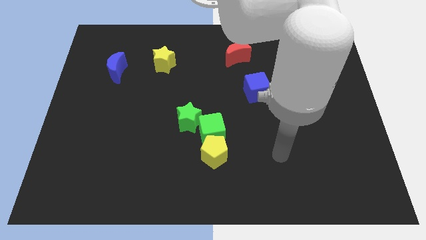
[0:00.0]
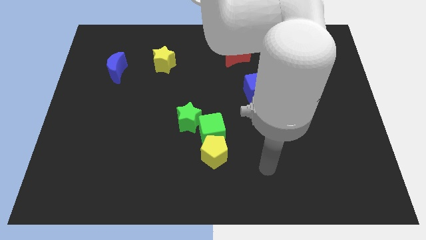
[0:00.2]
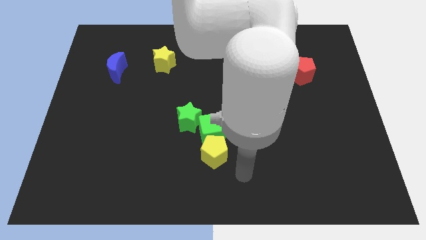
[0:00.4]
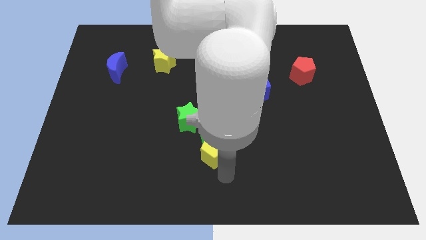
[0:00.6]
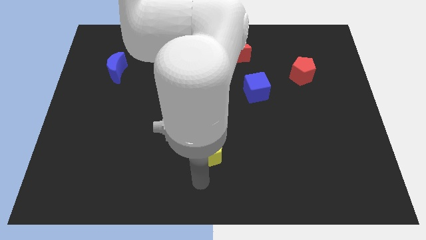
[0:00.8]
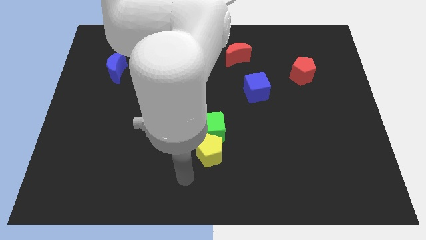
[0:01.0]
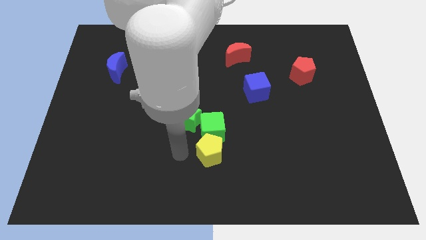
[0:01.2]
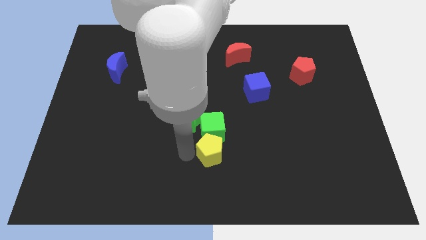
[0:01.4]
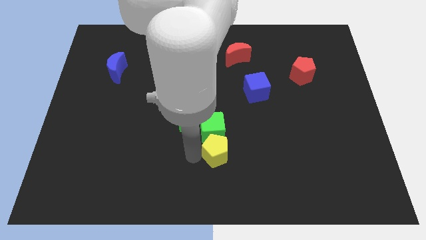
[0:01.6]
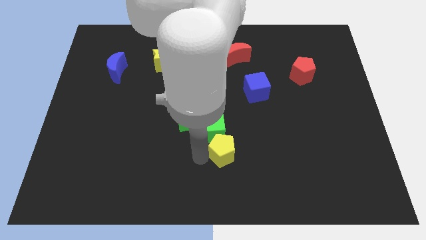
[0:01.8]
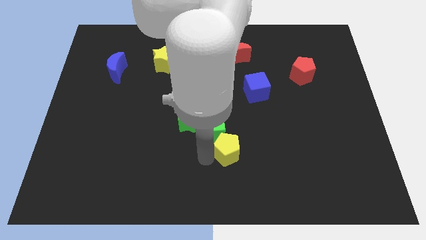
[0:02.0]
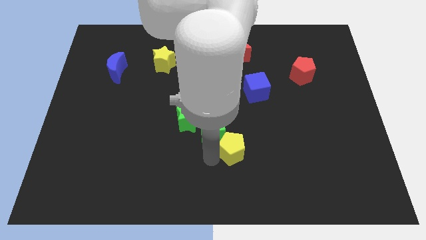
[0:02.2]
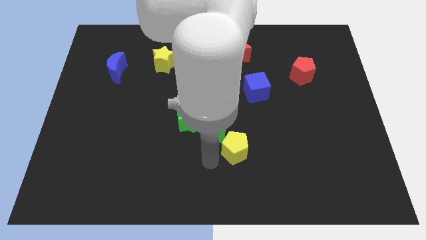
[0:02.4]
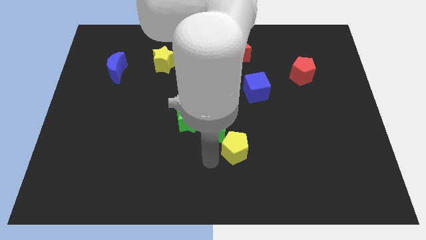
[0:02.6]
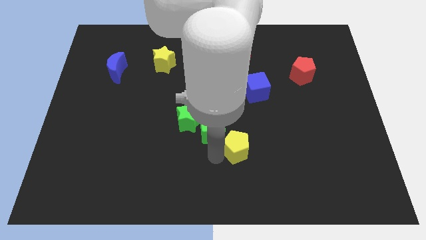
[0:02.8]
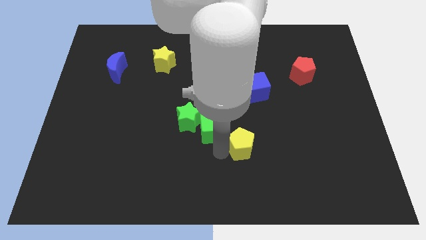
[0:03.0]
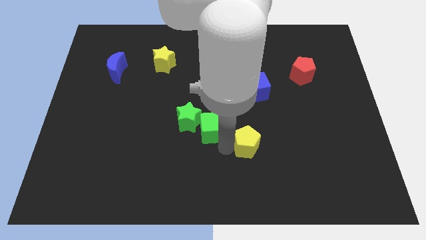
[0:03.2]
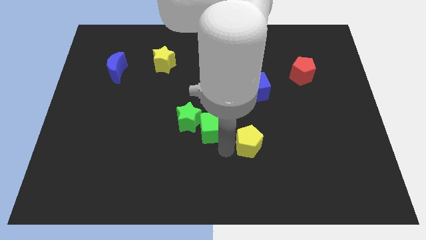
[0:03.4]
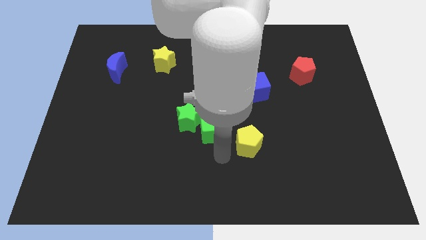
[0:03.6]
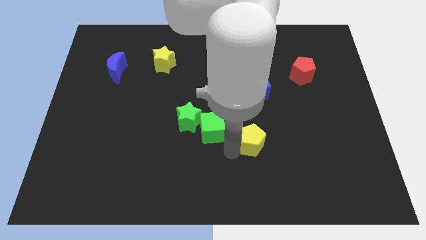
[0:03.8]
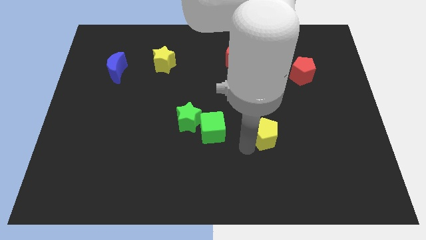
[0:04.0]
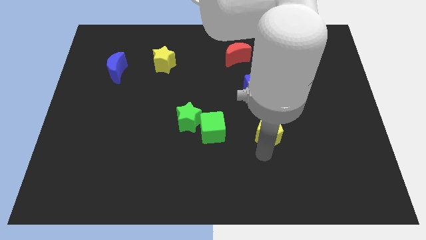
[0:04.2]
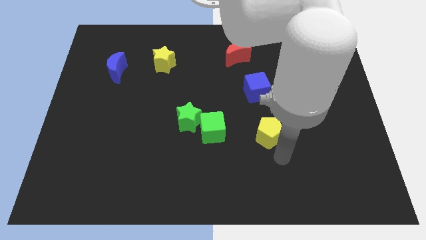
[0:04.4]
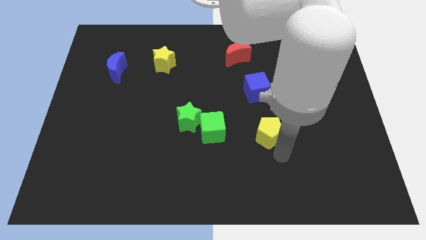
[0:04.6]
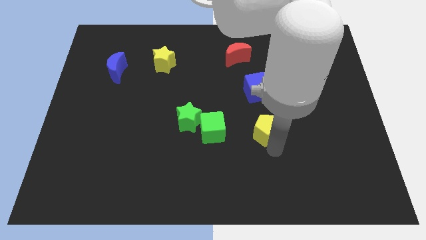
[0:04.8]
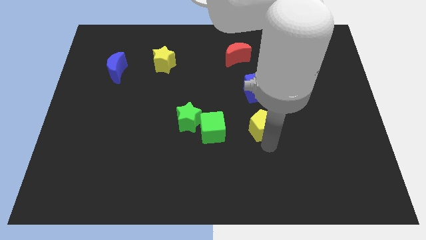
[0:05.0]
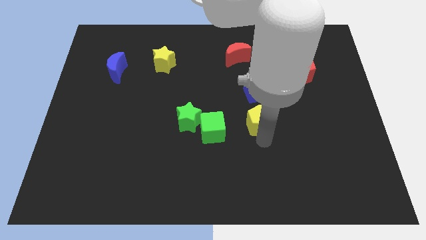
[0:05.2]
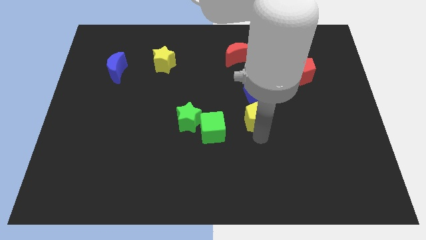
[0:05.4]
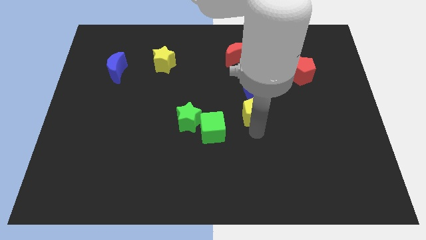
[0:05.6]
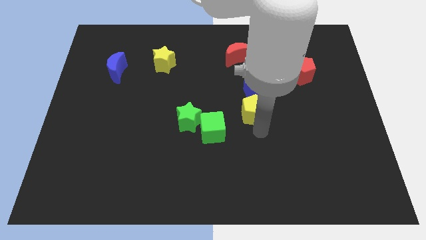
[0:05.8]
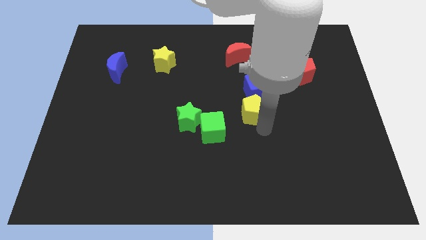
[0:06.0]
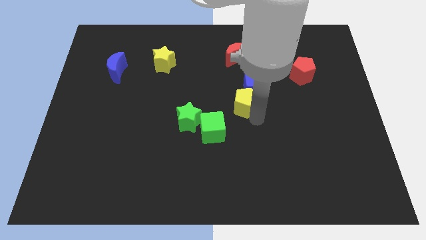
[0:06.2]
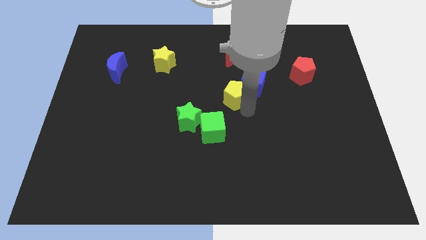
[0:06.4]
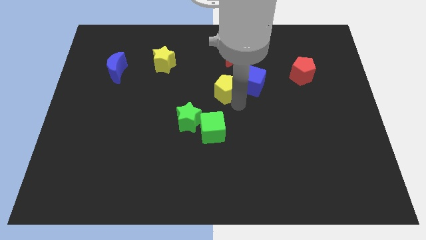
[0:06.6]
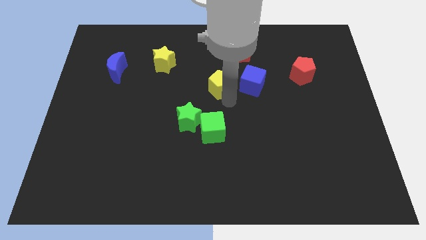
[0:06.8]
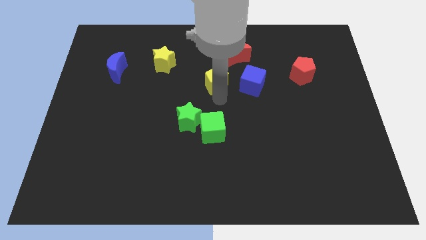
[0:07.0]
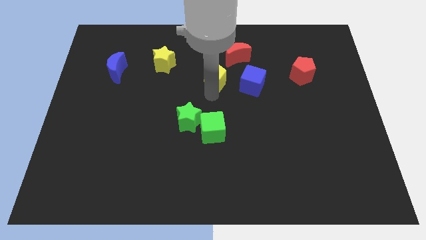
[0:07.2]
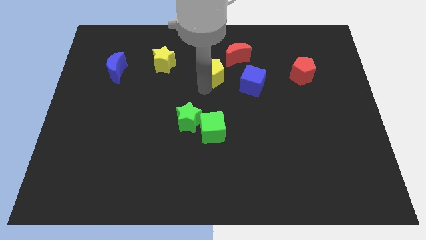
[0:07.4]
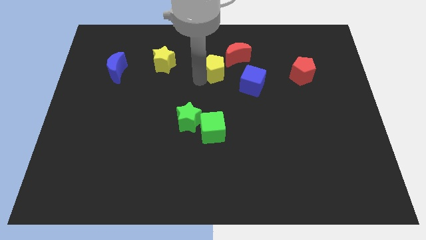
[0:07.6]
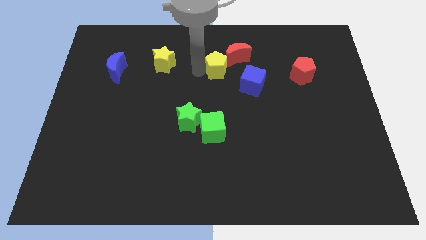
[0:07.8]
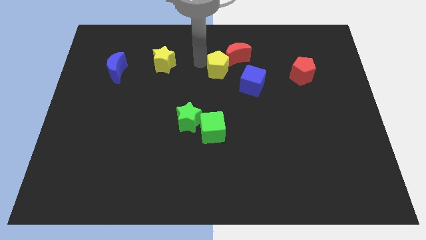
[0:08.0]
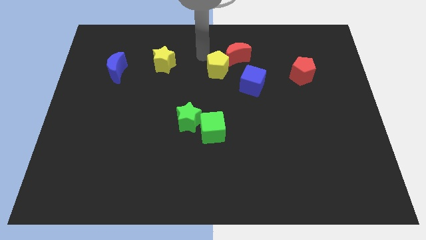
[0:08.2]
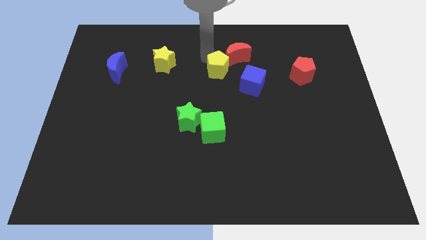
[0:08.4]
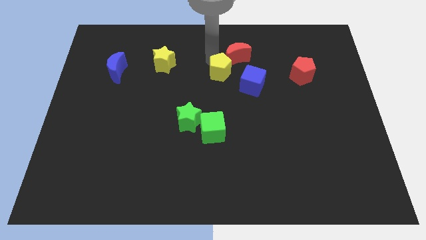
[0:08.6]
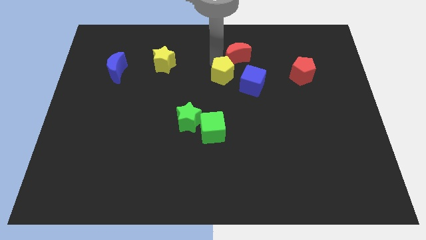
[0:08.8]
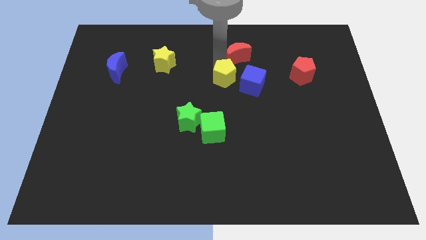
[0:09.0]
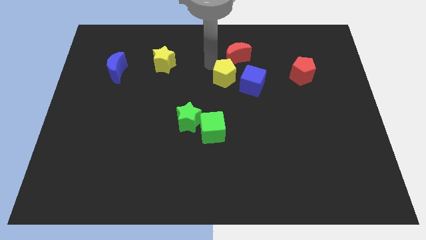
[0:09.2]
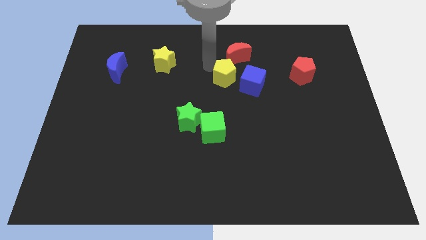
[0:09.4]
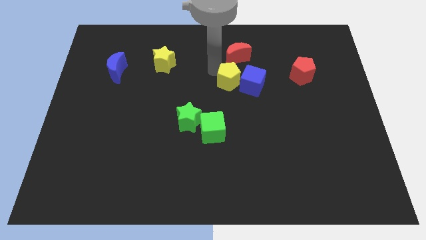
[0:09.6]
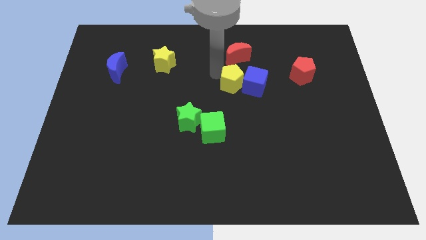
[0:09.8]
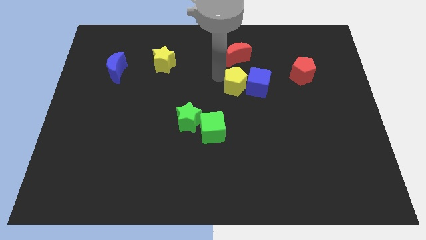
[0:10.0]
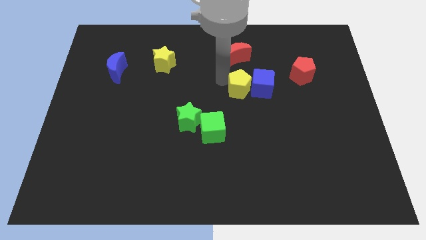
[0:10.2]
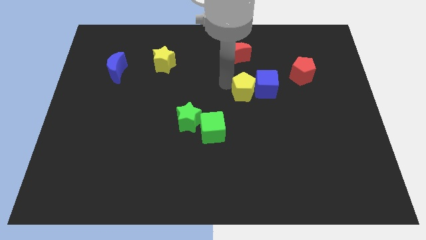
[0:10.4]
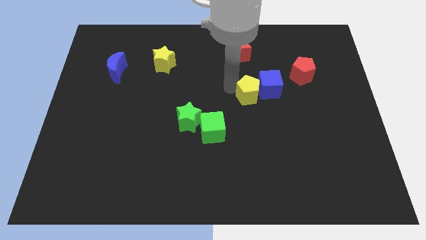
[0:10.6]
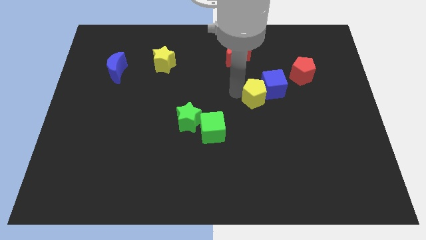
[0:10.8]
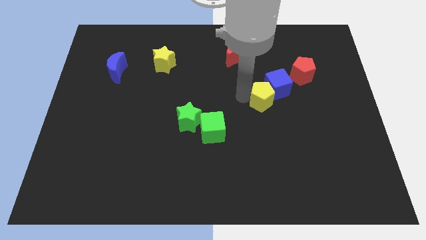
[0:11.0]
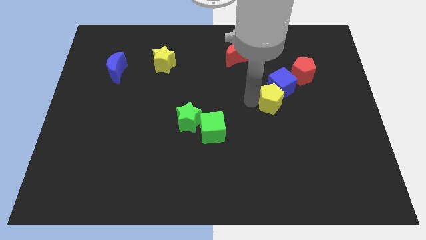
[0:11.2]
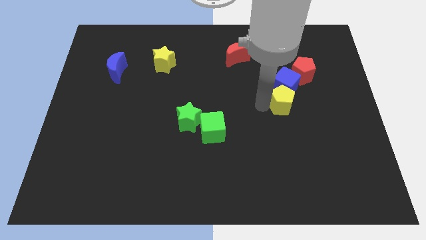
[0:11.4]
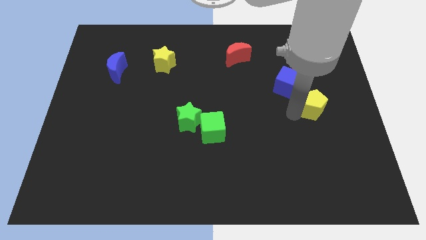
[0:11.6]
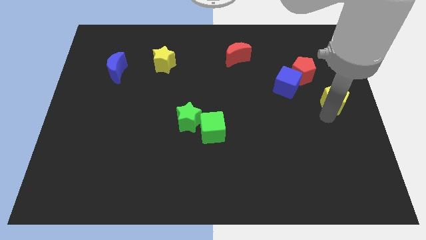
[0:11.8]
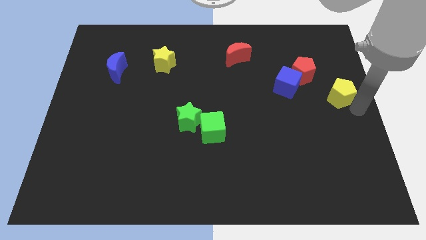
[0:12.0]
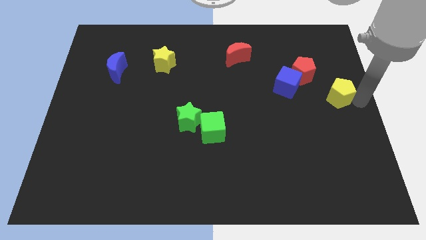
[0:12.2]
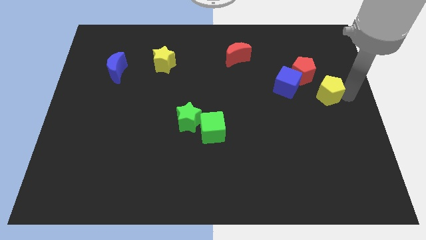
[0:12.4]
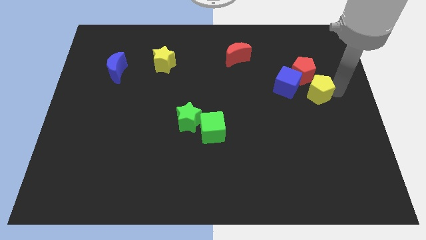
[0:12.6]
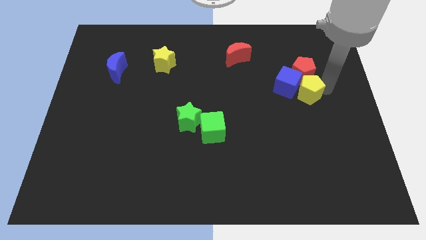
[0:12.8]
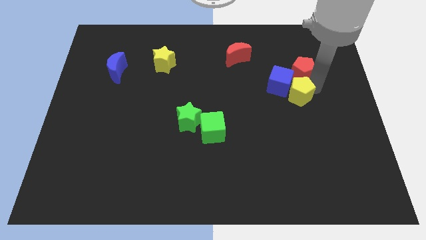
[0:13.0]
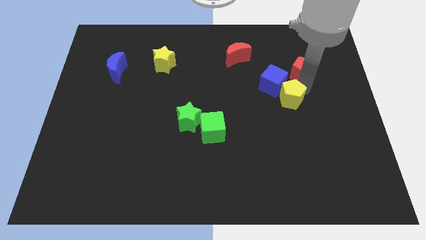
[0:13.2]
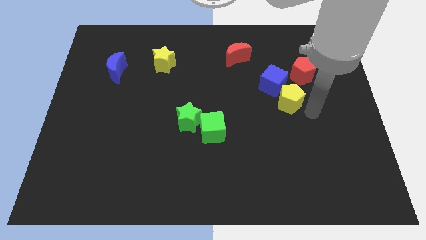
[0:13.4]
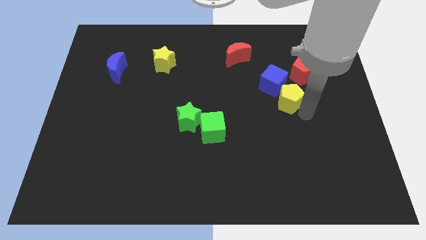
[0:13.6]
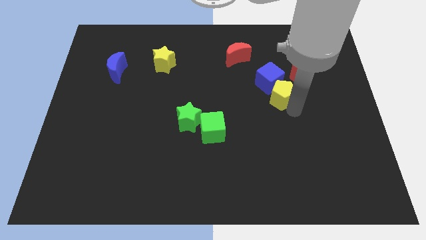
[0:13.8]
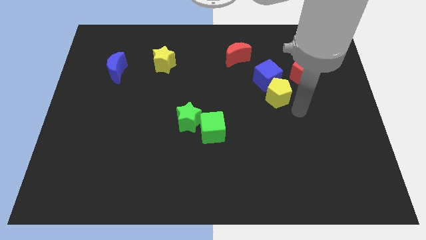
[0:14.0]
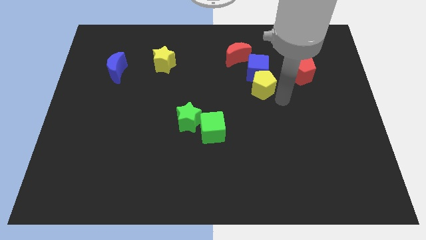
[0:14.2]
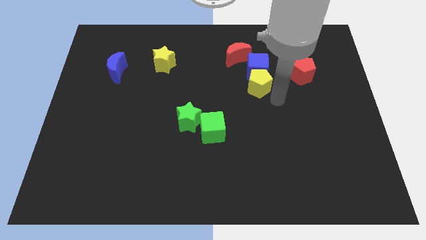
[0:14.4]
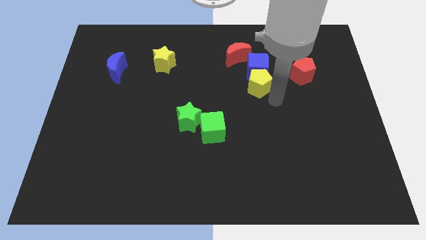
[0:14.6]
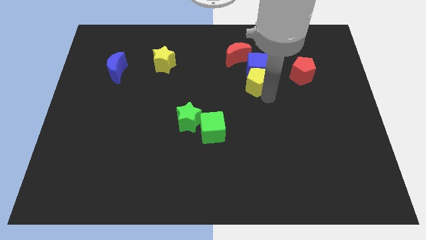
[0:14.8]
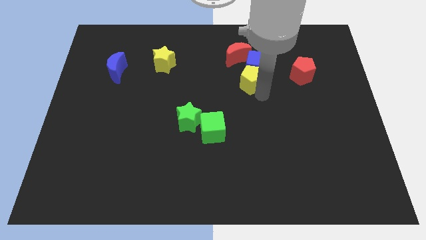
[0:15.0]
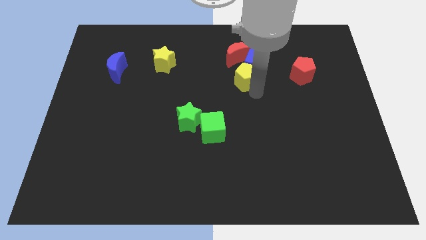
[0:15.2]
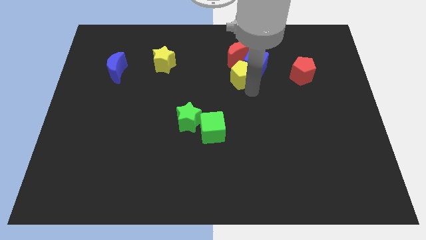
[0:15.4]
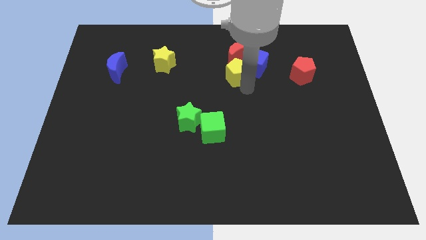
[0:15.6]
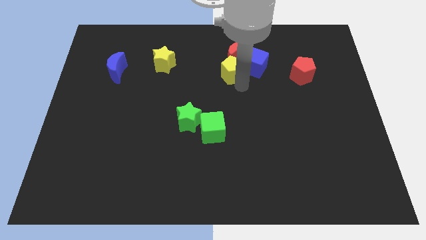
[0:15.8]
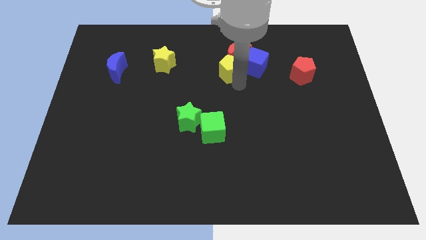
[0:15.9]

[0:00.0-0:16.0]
put the yellow pentagon close to the red moon
